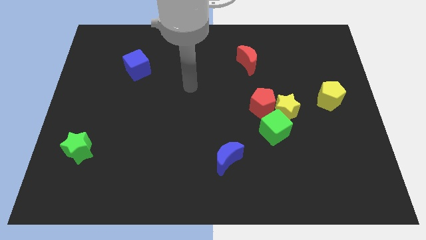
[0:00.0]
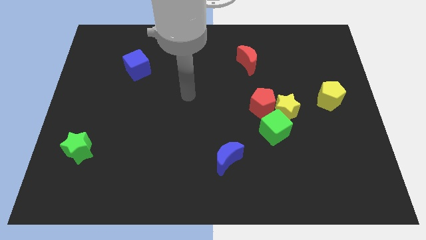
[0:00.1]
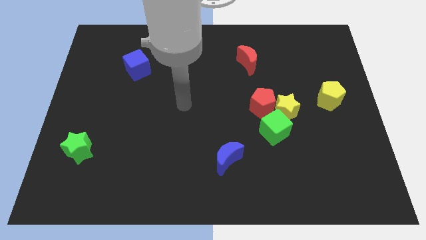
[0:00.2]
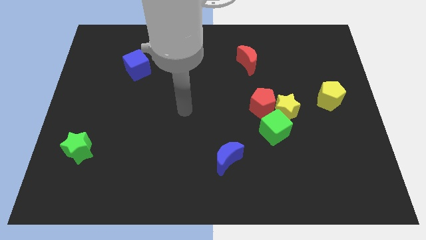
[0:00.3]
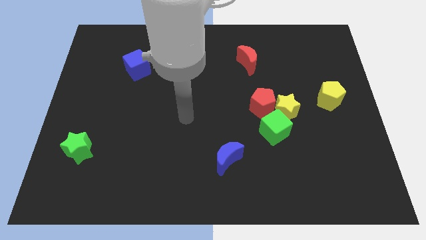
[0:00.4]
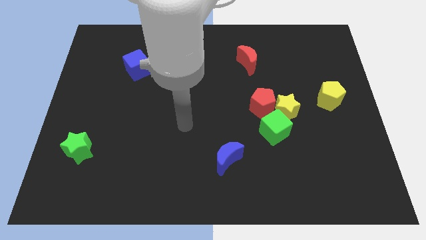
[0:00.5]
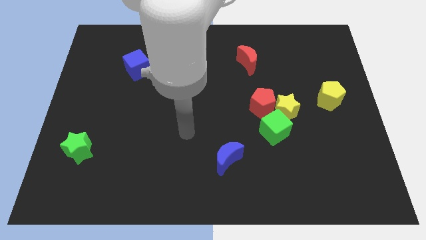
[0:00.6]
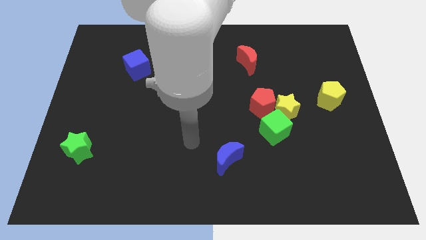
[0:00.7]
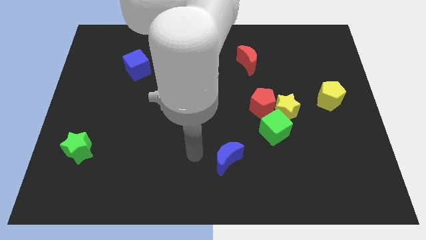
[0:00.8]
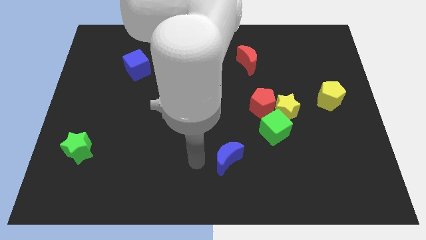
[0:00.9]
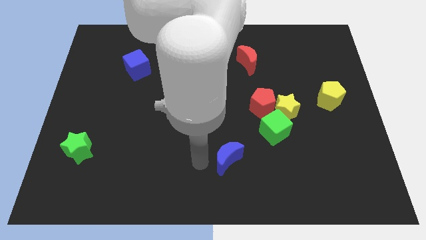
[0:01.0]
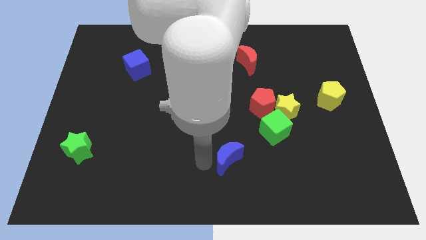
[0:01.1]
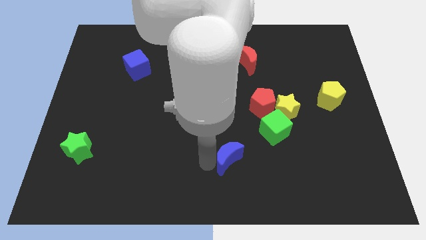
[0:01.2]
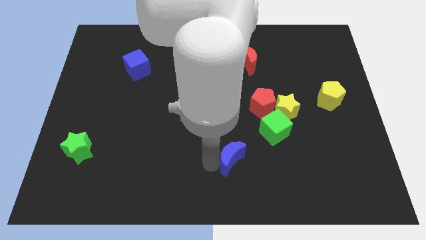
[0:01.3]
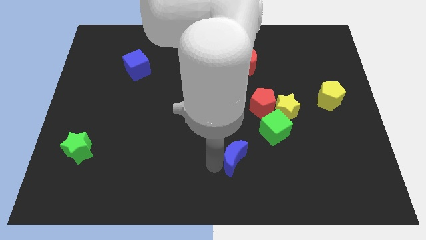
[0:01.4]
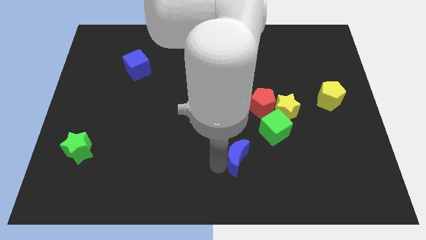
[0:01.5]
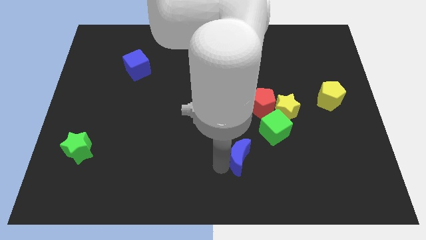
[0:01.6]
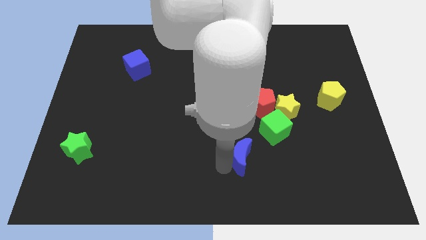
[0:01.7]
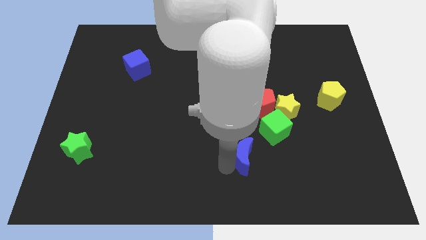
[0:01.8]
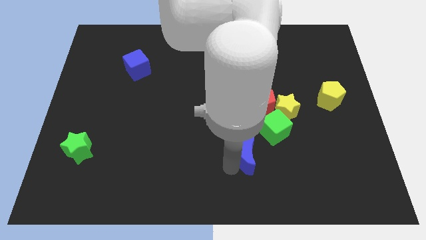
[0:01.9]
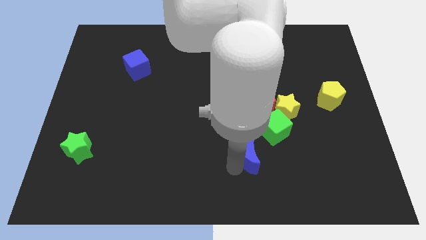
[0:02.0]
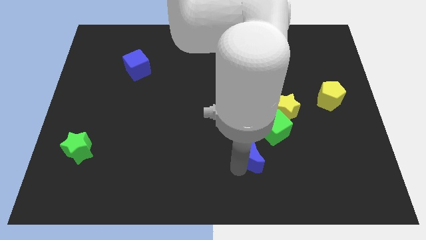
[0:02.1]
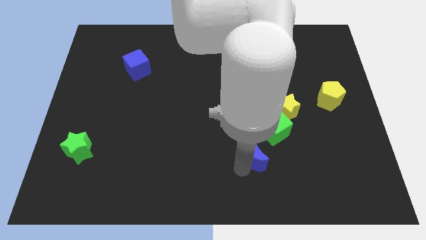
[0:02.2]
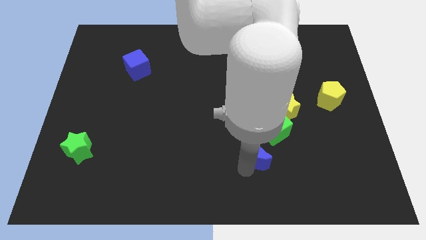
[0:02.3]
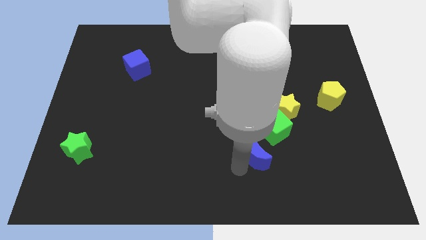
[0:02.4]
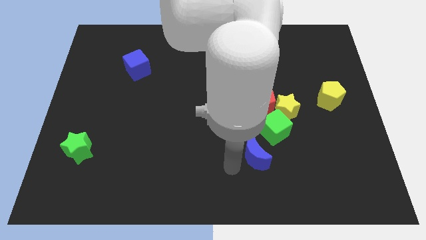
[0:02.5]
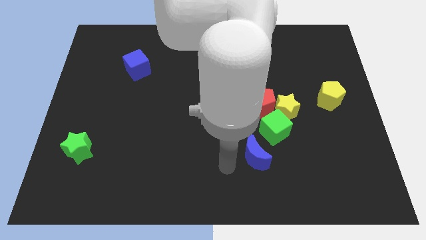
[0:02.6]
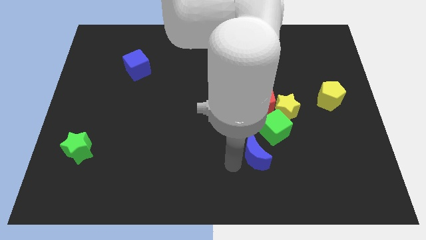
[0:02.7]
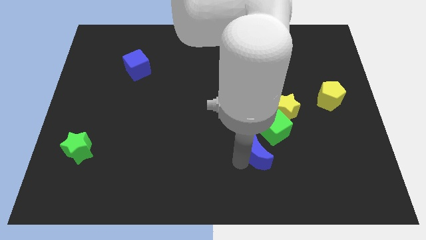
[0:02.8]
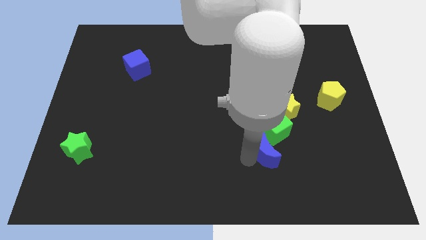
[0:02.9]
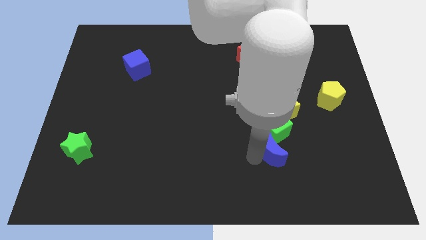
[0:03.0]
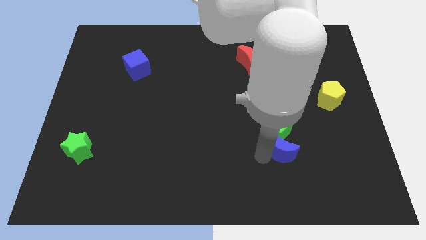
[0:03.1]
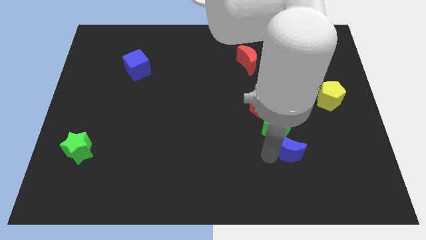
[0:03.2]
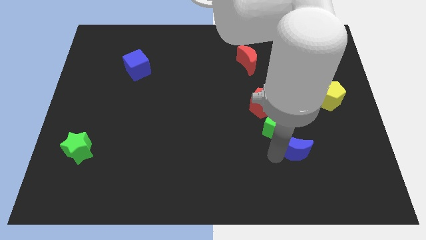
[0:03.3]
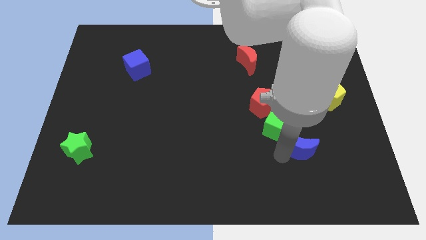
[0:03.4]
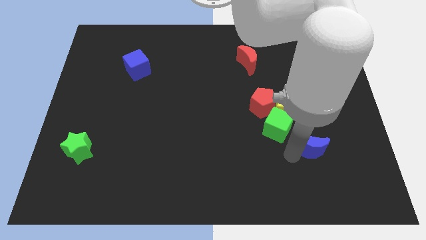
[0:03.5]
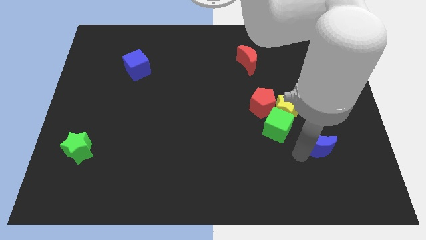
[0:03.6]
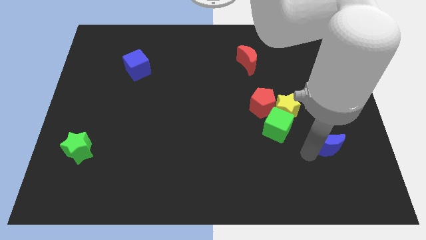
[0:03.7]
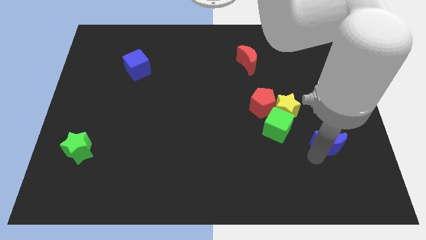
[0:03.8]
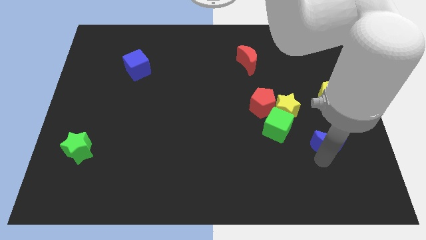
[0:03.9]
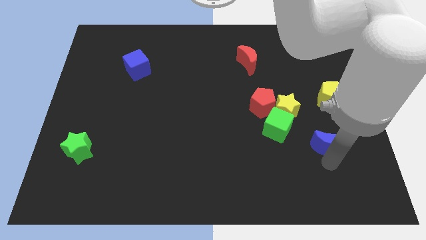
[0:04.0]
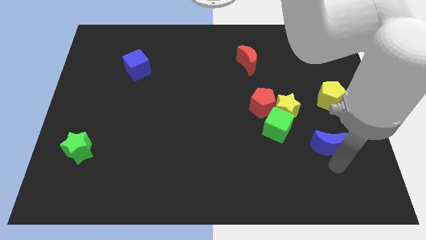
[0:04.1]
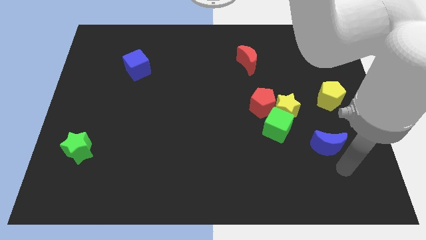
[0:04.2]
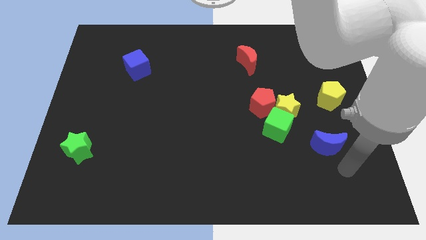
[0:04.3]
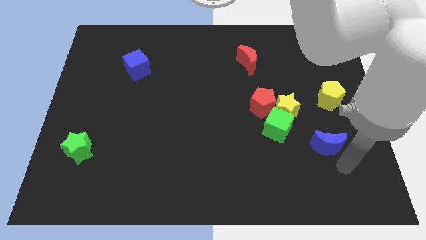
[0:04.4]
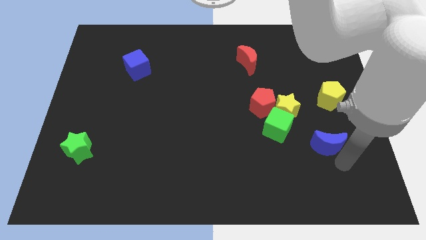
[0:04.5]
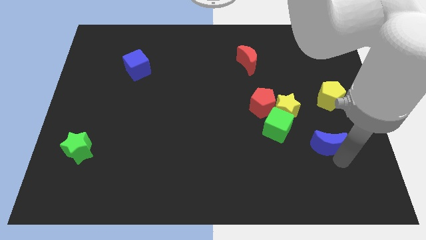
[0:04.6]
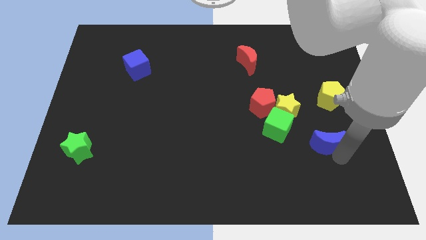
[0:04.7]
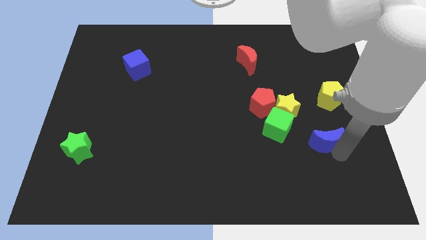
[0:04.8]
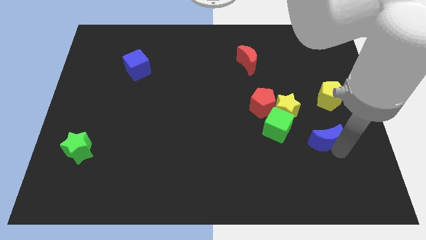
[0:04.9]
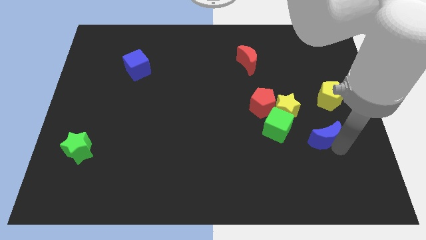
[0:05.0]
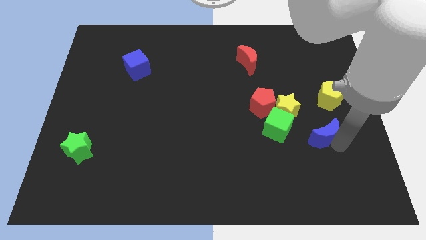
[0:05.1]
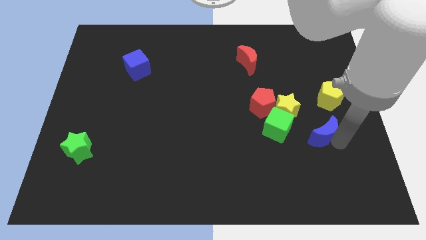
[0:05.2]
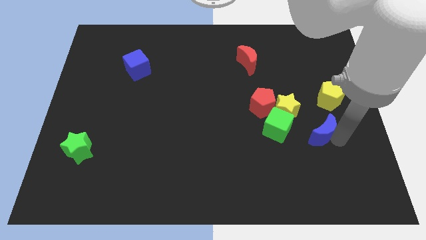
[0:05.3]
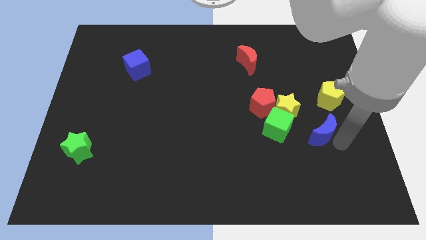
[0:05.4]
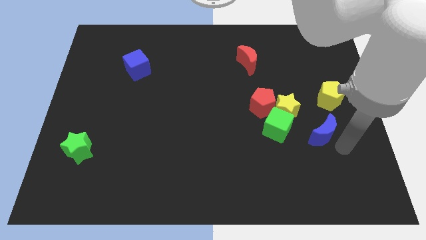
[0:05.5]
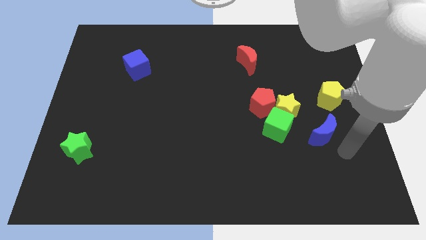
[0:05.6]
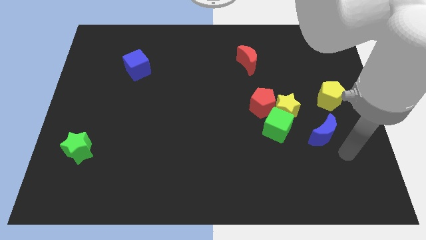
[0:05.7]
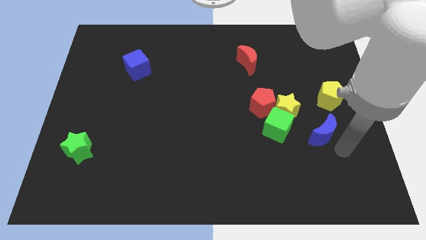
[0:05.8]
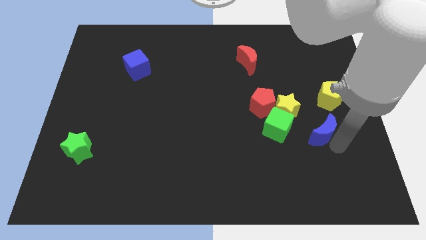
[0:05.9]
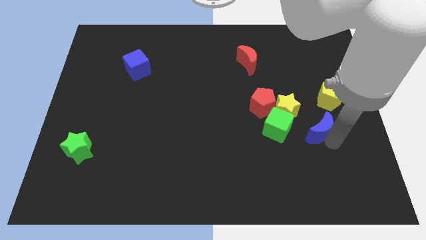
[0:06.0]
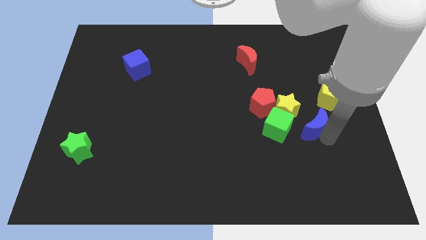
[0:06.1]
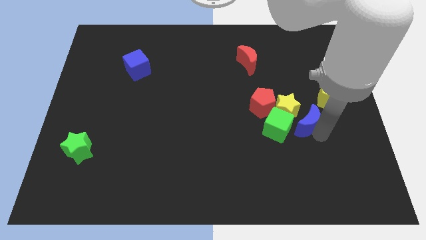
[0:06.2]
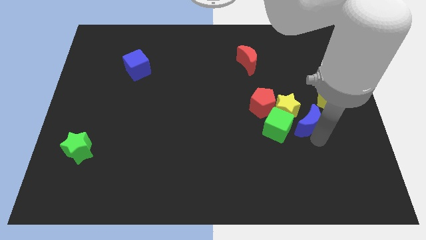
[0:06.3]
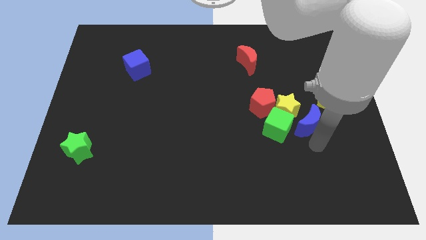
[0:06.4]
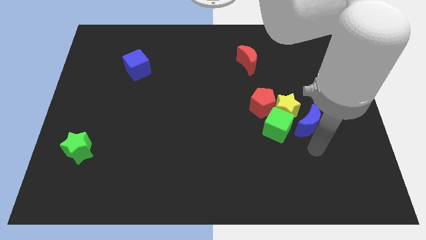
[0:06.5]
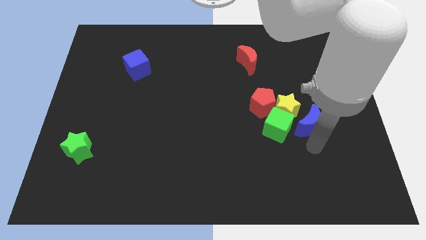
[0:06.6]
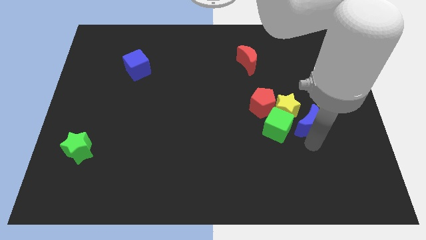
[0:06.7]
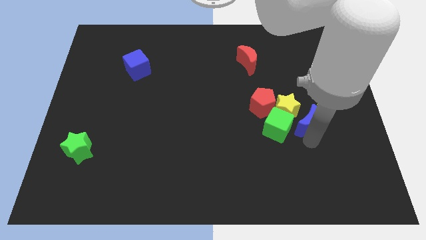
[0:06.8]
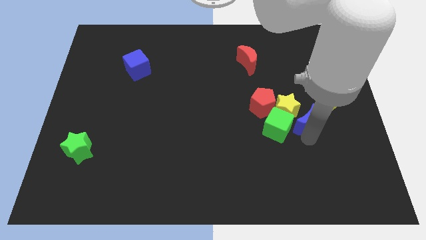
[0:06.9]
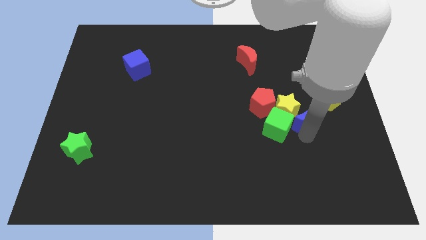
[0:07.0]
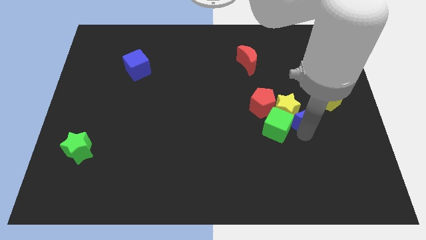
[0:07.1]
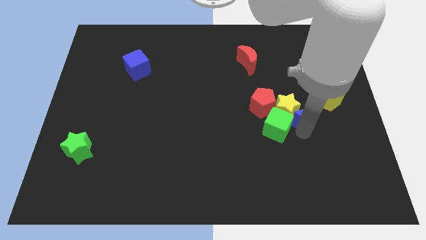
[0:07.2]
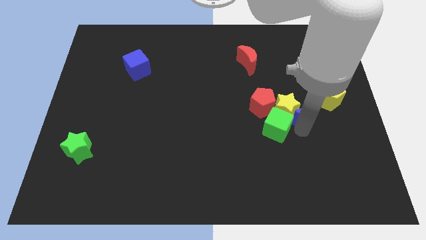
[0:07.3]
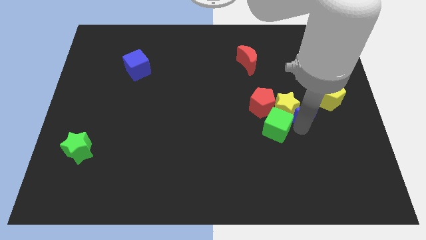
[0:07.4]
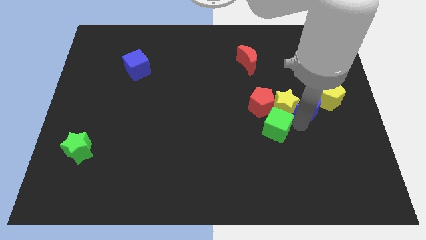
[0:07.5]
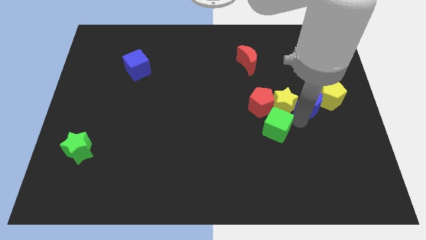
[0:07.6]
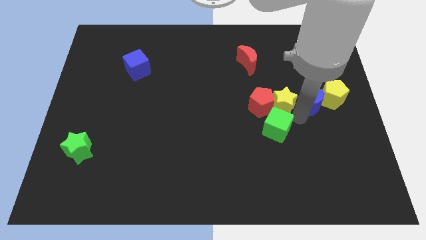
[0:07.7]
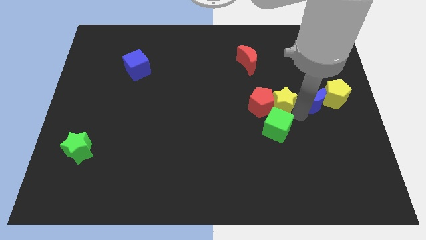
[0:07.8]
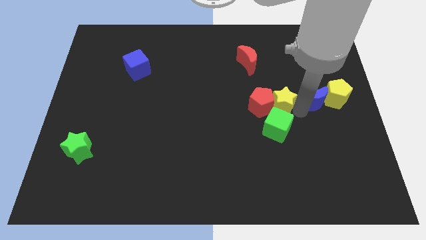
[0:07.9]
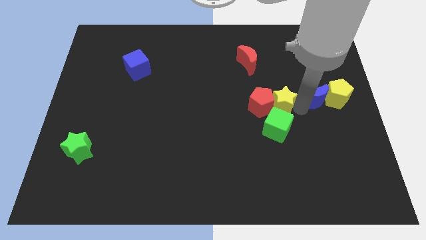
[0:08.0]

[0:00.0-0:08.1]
put the blue moon to the top left side of the yellow pentagon

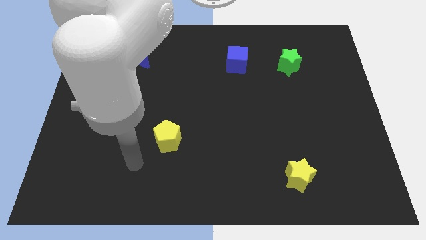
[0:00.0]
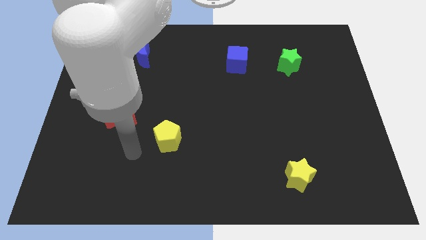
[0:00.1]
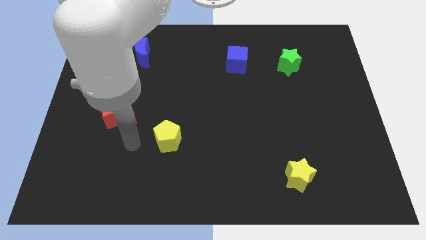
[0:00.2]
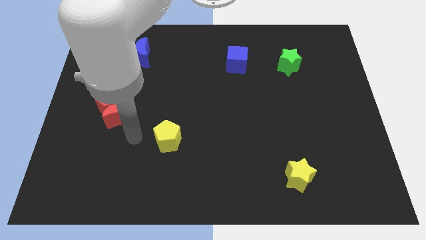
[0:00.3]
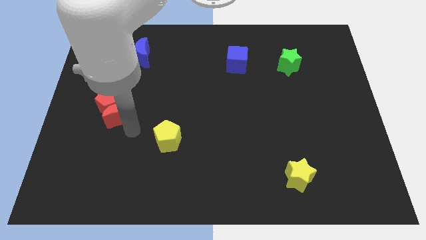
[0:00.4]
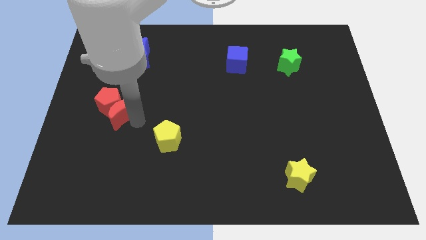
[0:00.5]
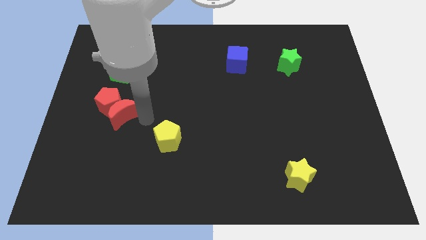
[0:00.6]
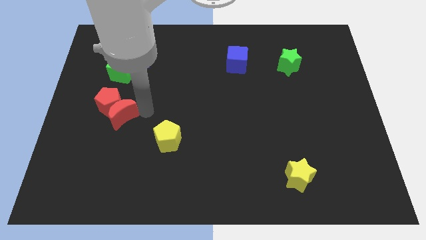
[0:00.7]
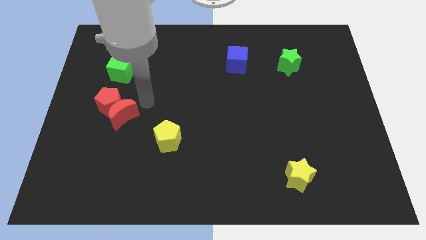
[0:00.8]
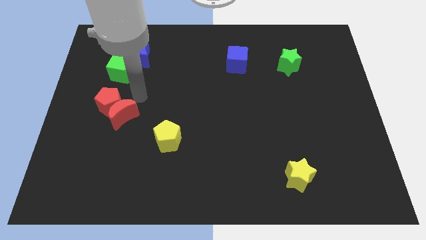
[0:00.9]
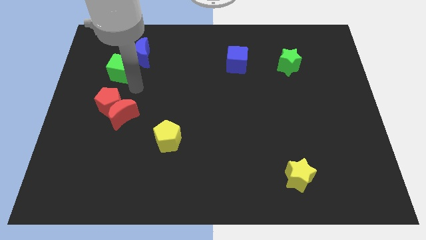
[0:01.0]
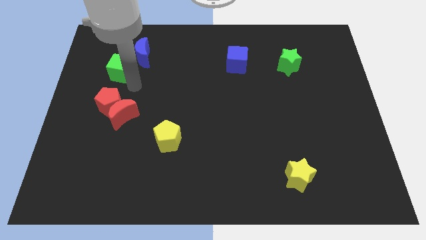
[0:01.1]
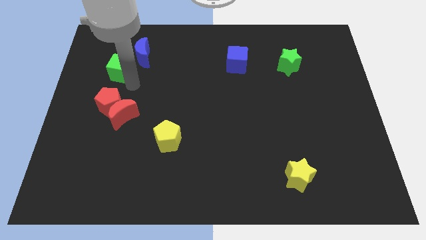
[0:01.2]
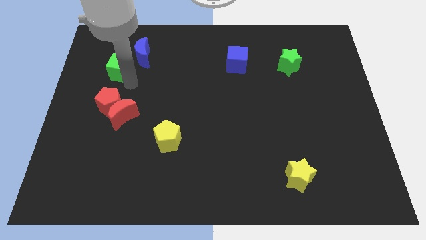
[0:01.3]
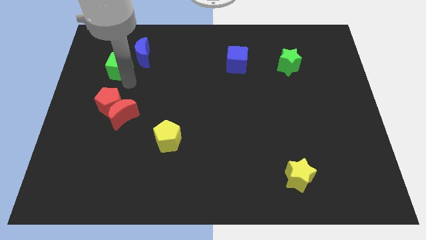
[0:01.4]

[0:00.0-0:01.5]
put the green cube to the left side of the blue moon
